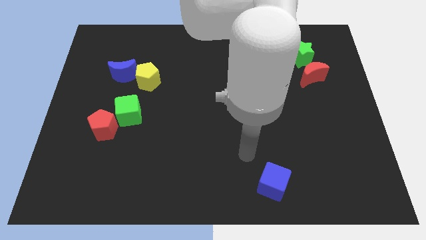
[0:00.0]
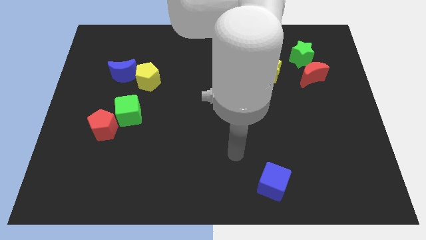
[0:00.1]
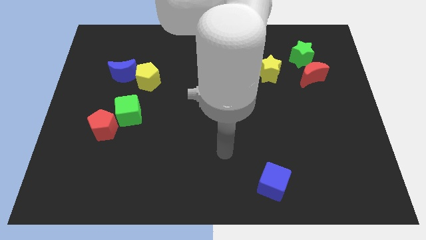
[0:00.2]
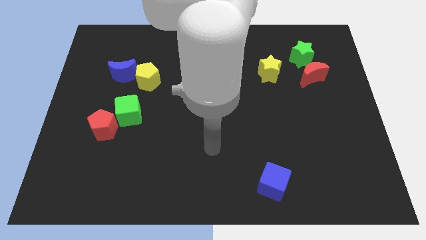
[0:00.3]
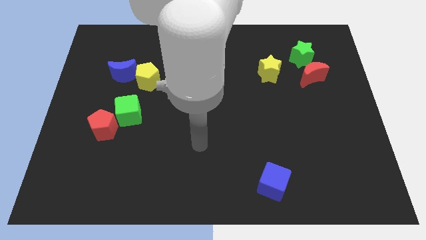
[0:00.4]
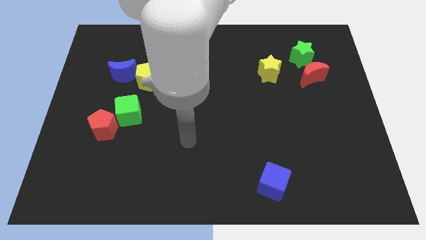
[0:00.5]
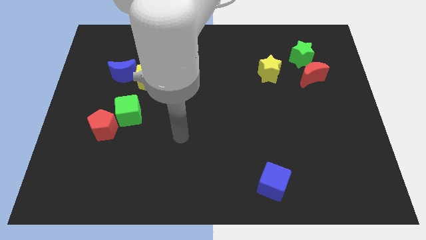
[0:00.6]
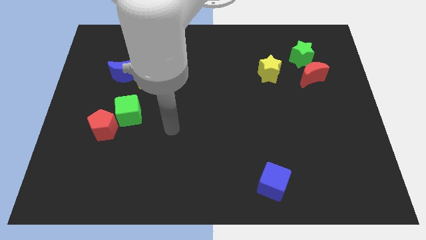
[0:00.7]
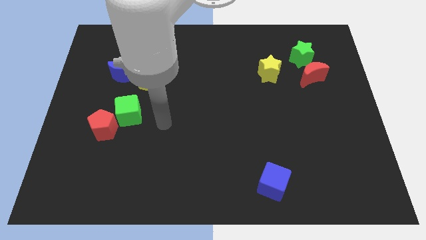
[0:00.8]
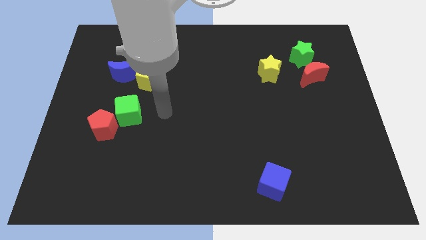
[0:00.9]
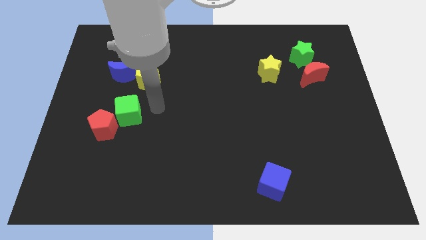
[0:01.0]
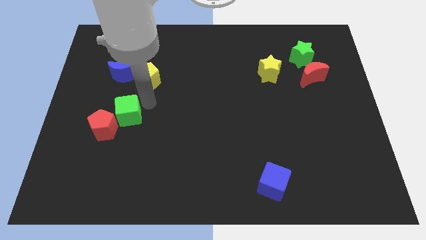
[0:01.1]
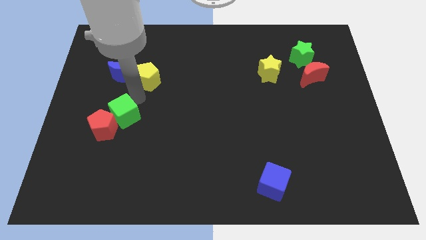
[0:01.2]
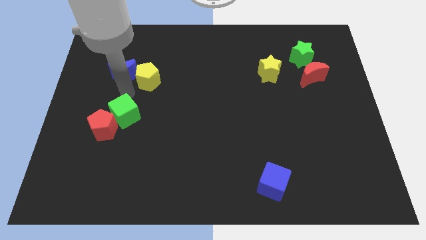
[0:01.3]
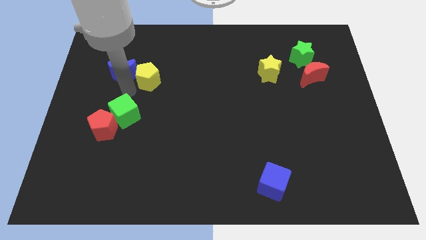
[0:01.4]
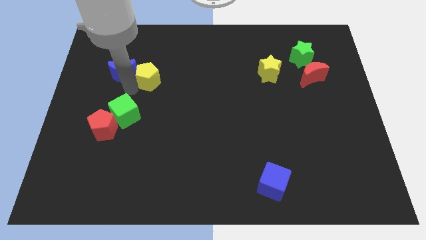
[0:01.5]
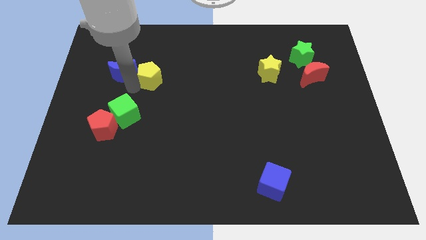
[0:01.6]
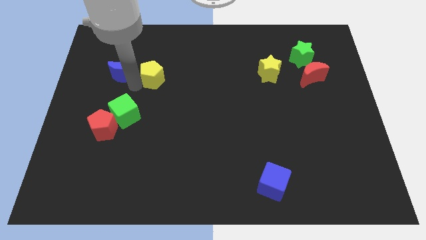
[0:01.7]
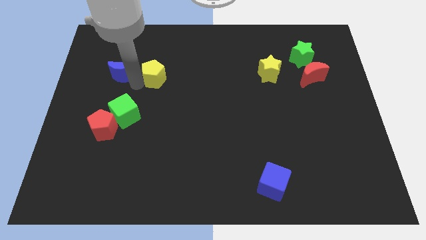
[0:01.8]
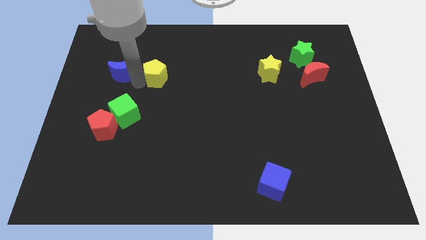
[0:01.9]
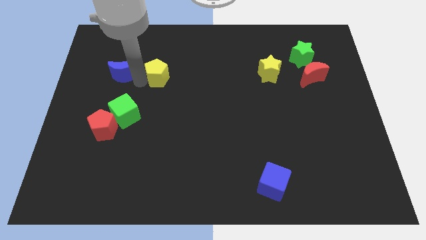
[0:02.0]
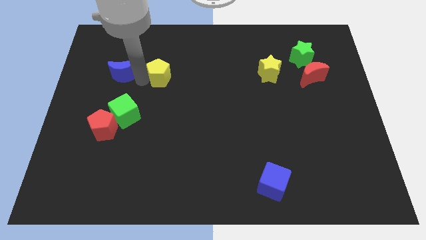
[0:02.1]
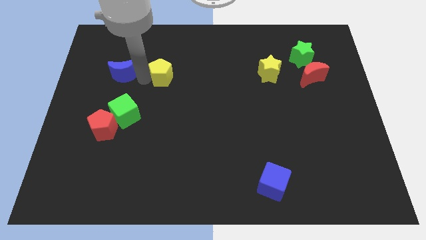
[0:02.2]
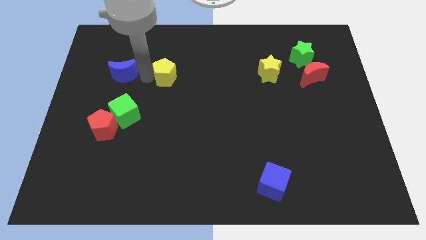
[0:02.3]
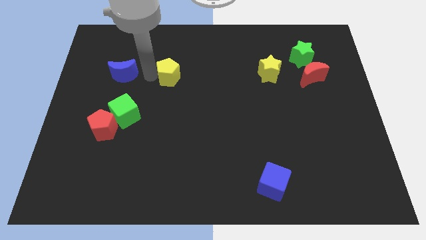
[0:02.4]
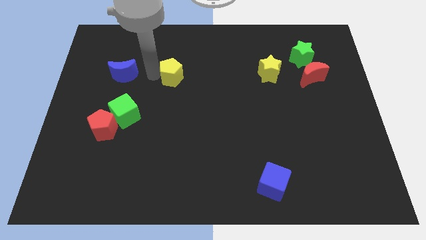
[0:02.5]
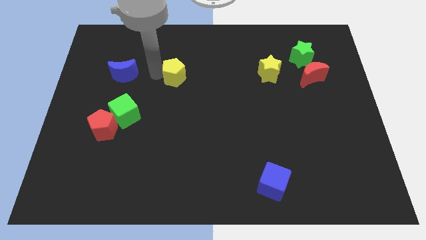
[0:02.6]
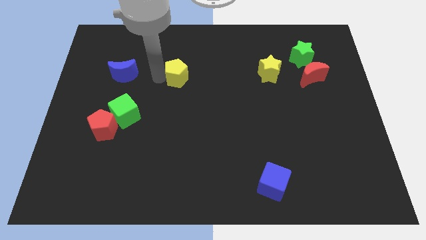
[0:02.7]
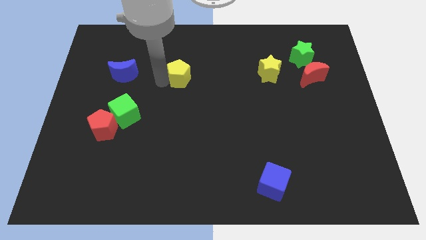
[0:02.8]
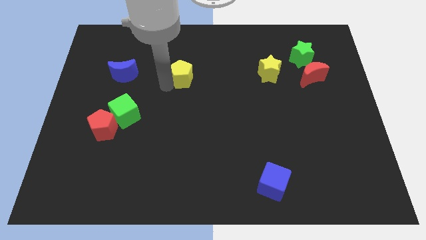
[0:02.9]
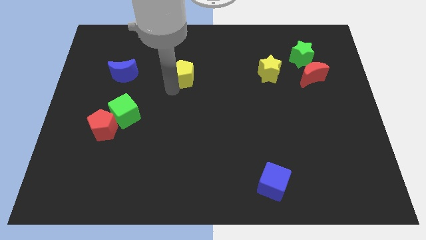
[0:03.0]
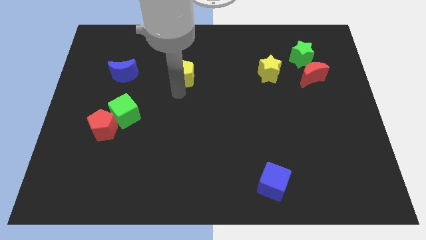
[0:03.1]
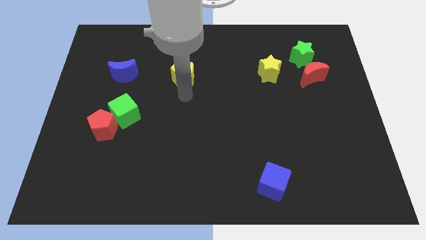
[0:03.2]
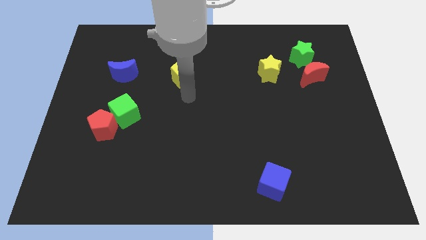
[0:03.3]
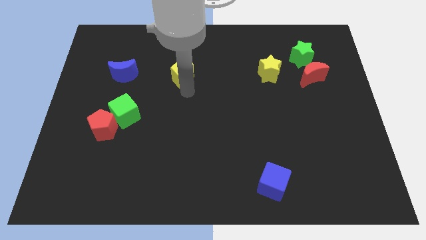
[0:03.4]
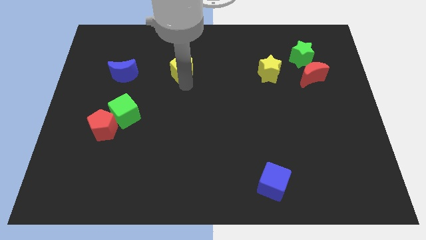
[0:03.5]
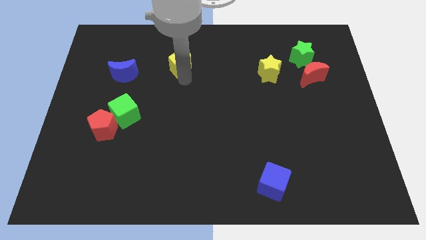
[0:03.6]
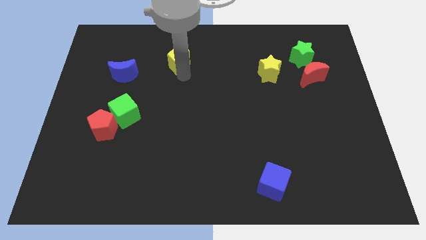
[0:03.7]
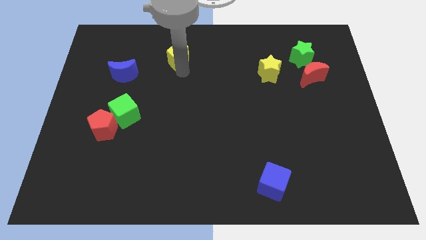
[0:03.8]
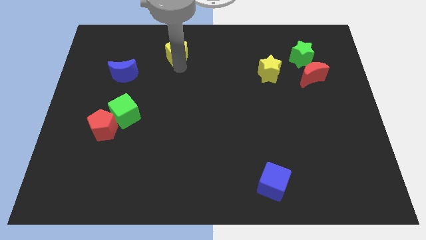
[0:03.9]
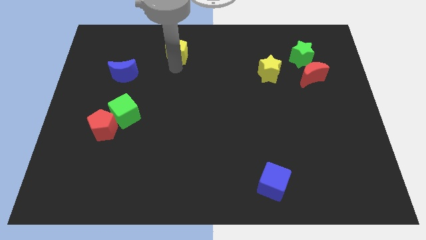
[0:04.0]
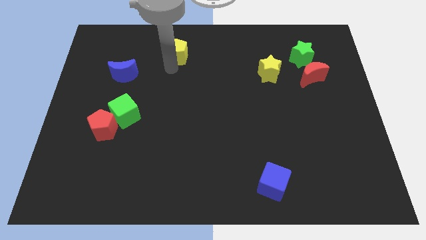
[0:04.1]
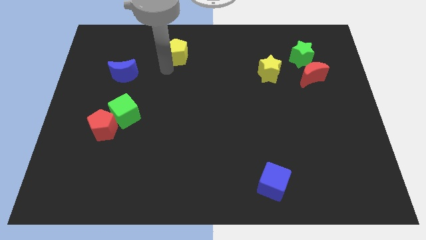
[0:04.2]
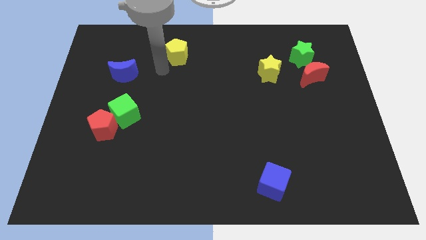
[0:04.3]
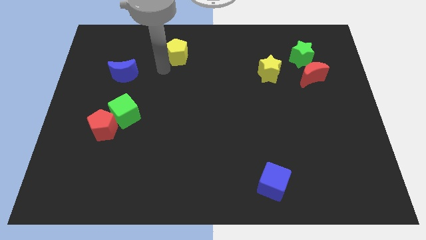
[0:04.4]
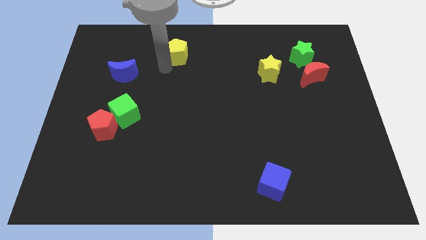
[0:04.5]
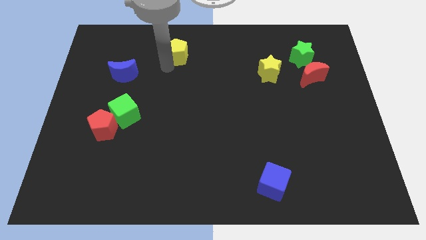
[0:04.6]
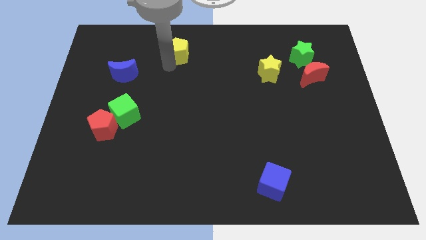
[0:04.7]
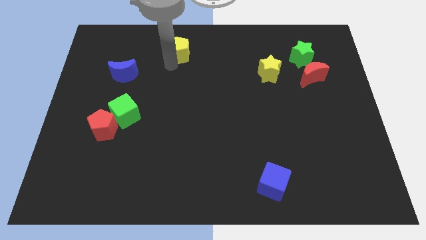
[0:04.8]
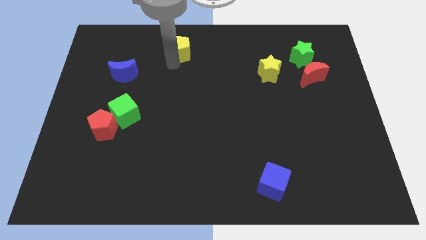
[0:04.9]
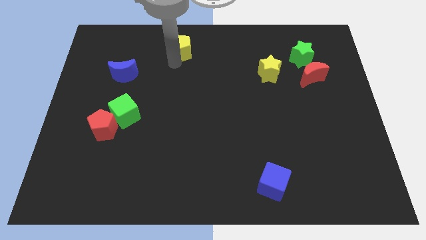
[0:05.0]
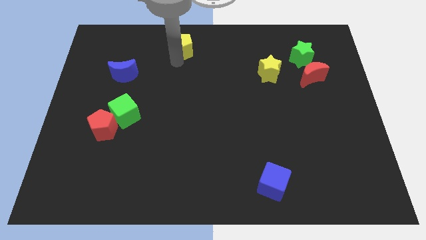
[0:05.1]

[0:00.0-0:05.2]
push the yellow pentagon to the top side

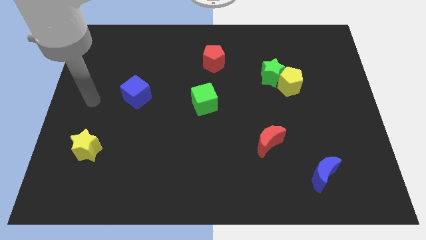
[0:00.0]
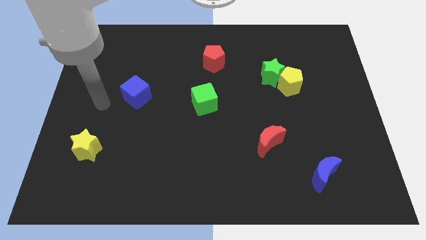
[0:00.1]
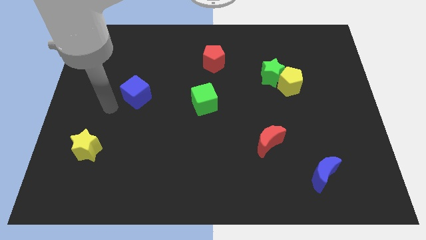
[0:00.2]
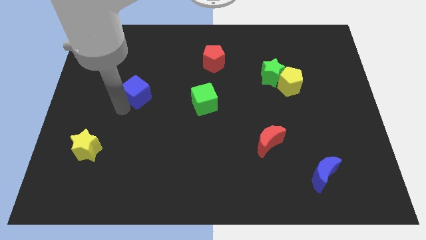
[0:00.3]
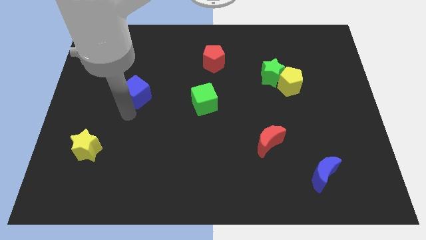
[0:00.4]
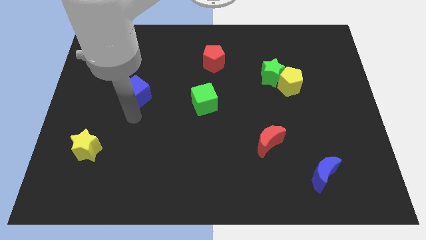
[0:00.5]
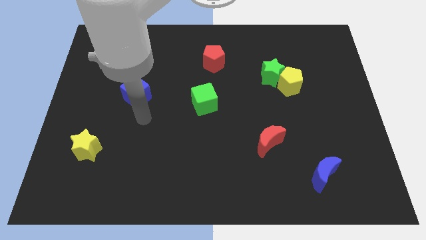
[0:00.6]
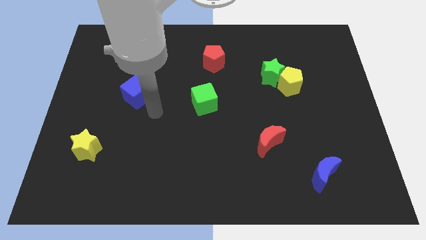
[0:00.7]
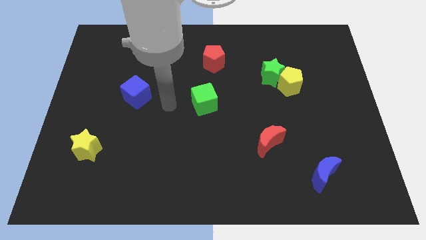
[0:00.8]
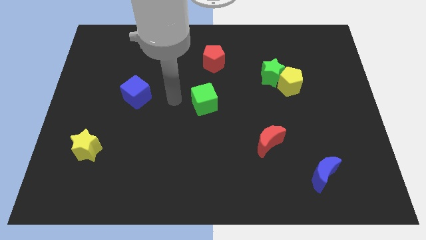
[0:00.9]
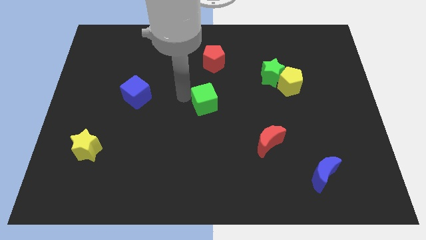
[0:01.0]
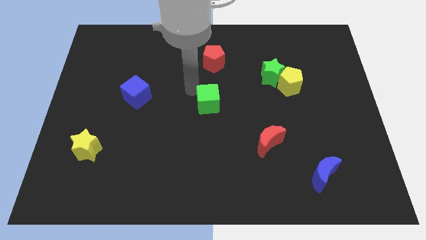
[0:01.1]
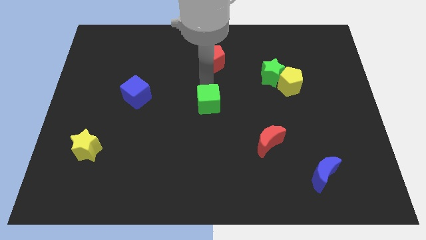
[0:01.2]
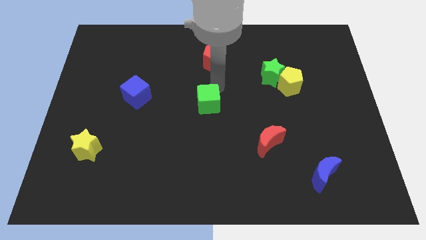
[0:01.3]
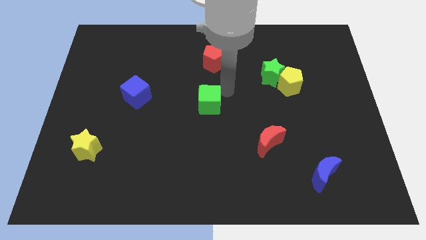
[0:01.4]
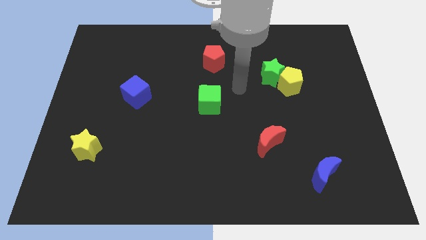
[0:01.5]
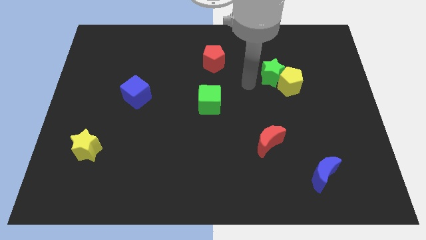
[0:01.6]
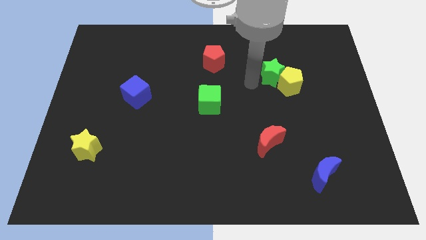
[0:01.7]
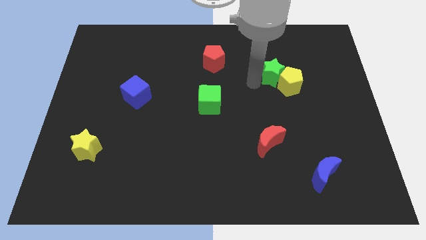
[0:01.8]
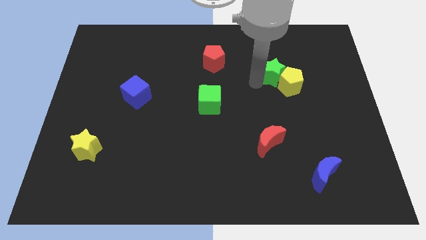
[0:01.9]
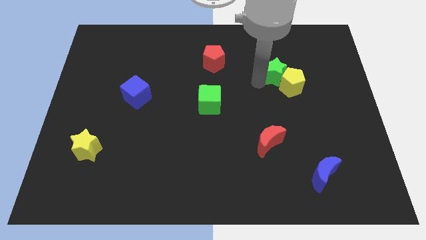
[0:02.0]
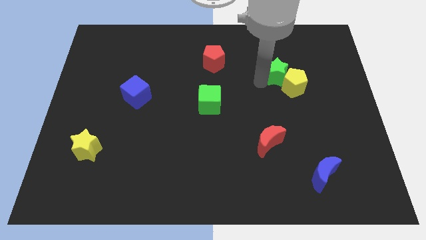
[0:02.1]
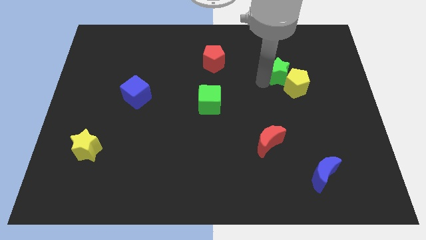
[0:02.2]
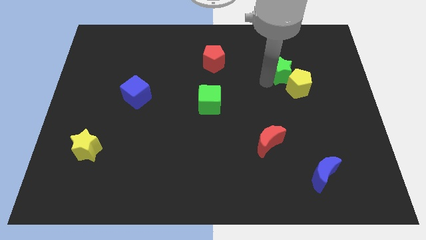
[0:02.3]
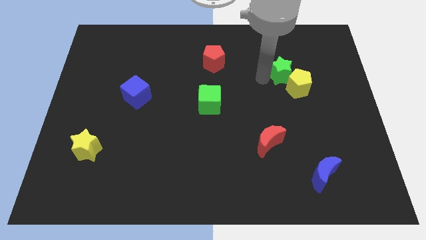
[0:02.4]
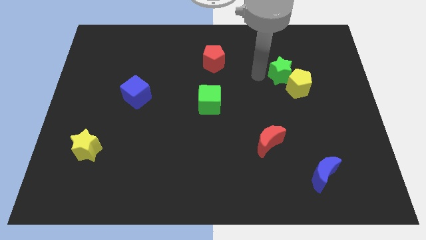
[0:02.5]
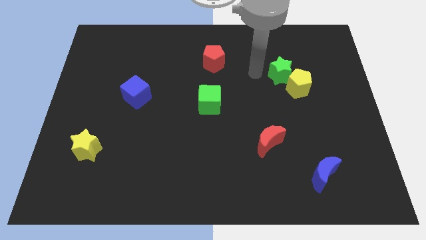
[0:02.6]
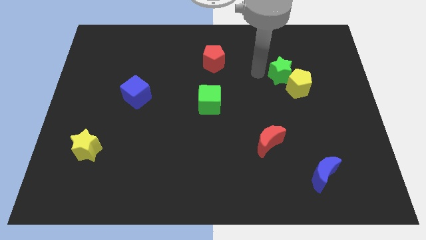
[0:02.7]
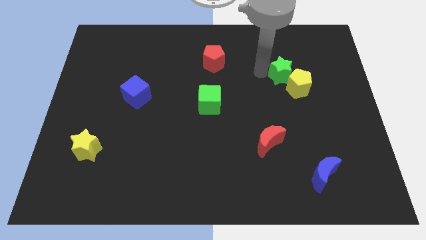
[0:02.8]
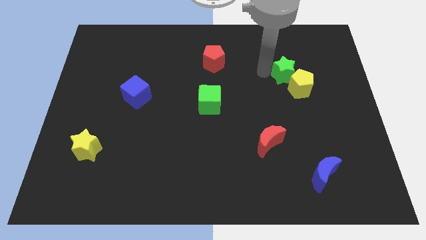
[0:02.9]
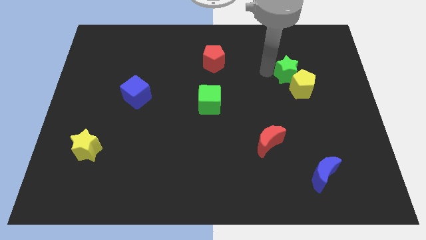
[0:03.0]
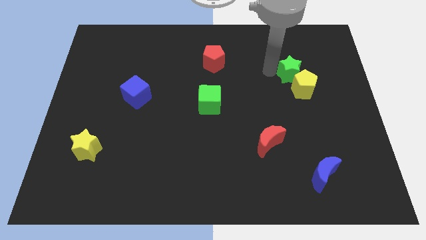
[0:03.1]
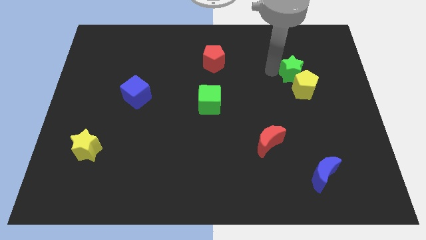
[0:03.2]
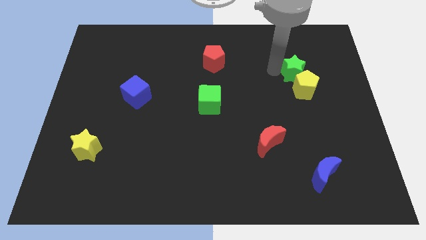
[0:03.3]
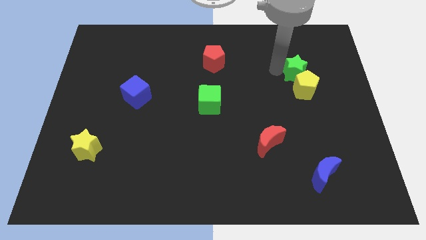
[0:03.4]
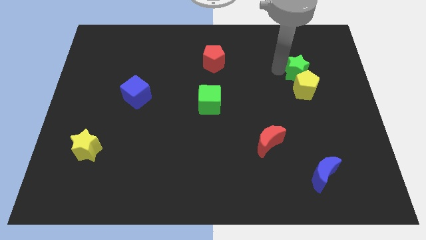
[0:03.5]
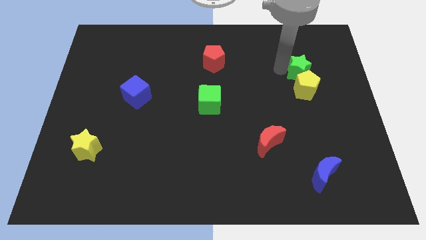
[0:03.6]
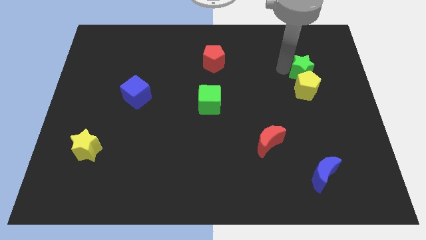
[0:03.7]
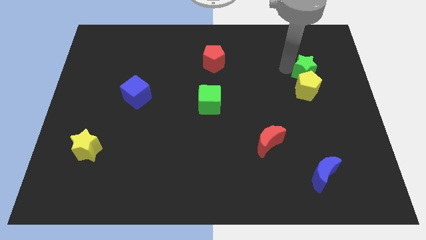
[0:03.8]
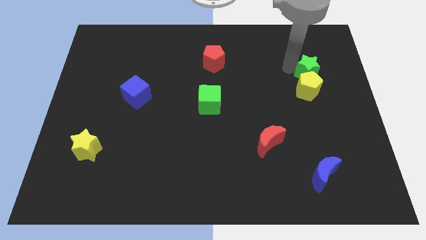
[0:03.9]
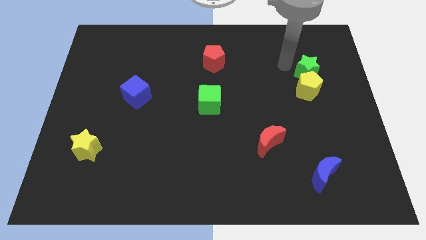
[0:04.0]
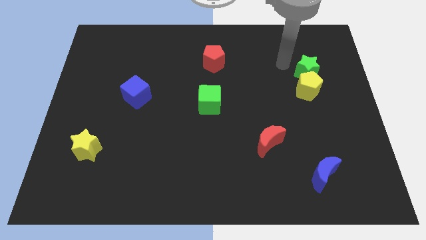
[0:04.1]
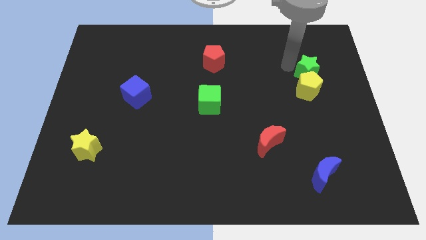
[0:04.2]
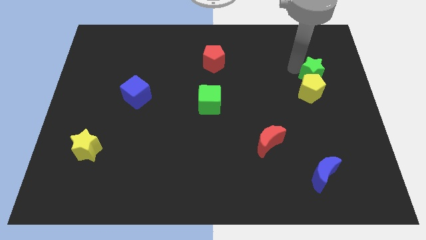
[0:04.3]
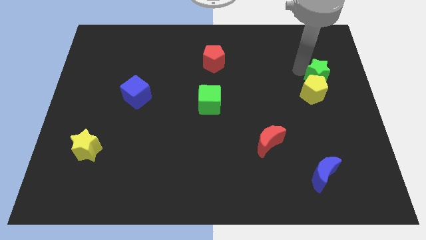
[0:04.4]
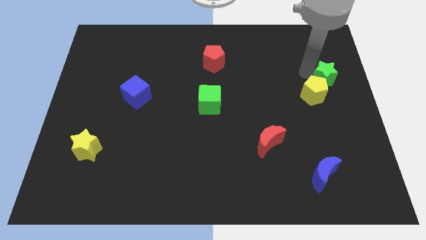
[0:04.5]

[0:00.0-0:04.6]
slide the green star to the right side
